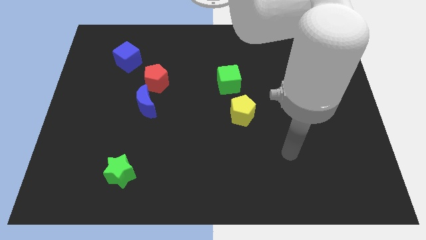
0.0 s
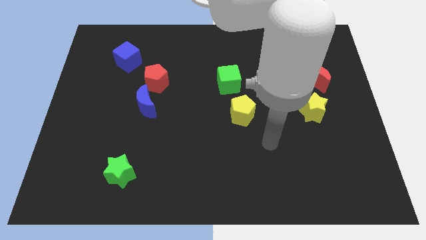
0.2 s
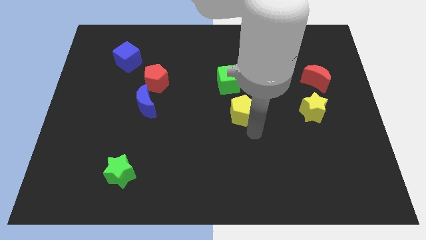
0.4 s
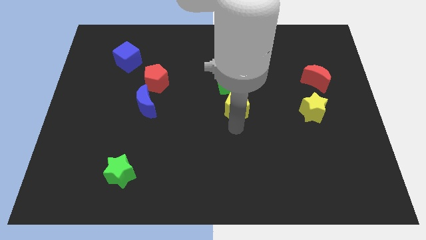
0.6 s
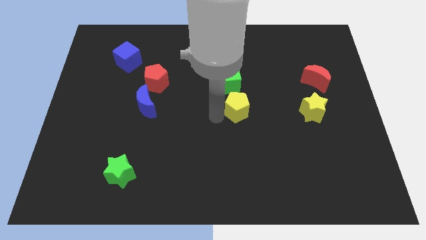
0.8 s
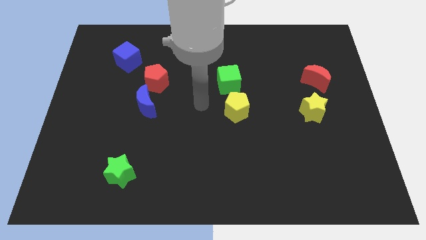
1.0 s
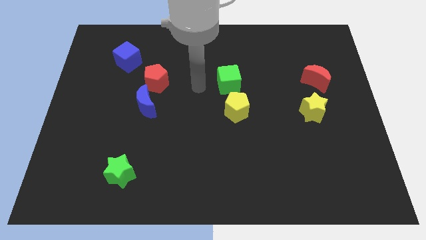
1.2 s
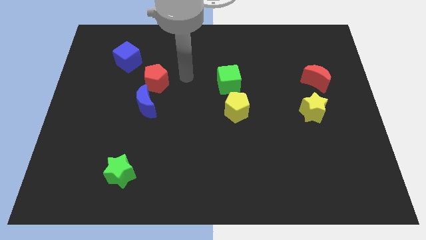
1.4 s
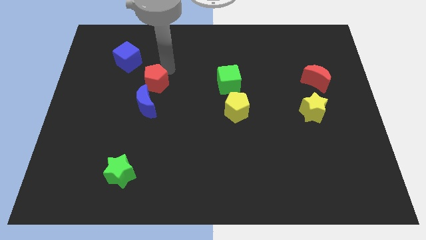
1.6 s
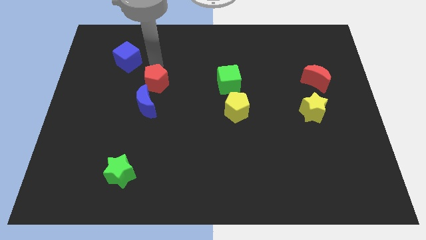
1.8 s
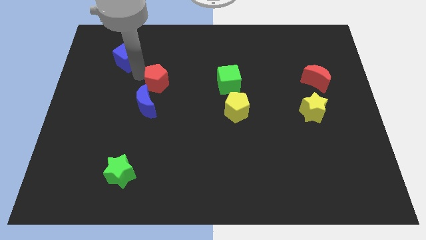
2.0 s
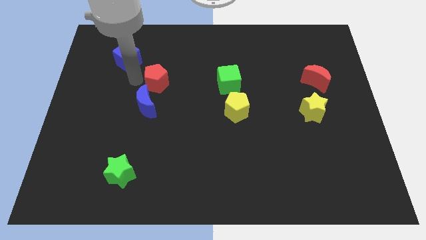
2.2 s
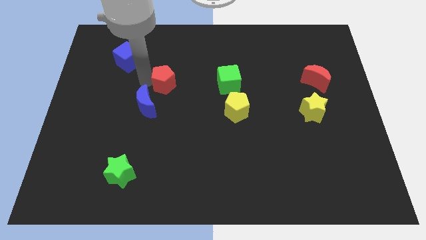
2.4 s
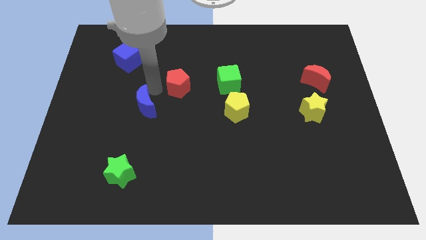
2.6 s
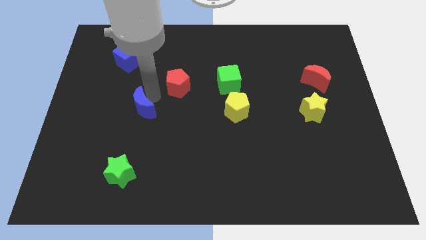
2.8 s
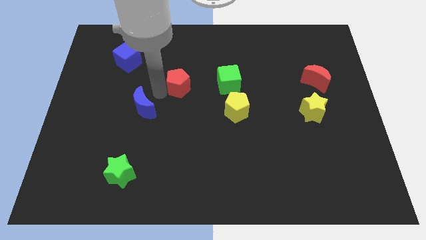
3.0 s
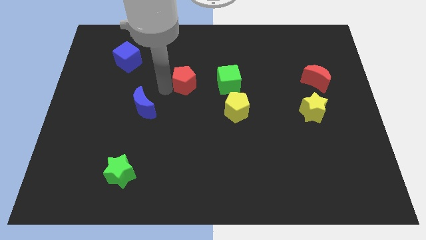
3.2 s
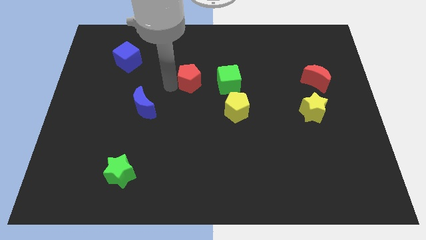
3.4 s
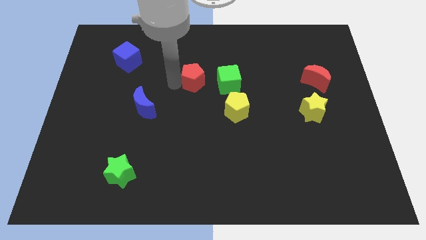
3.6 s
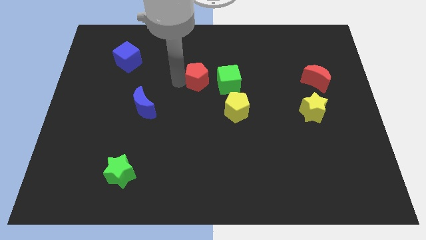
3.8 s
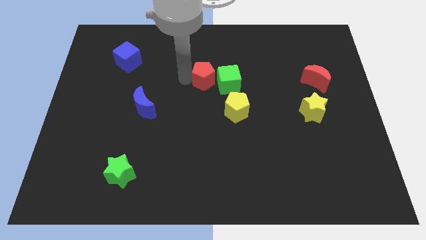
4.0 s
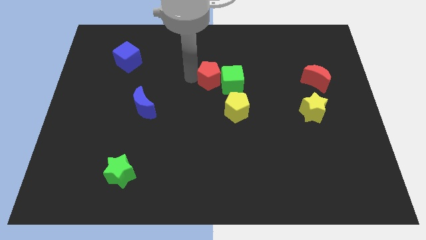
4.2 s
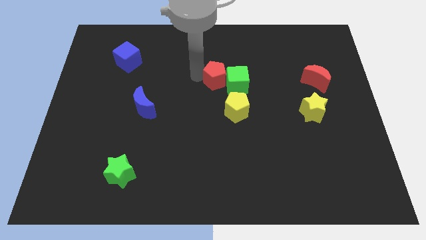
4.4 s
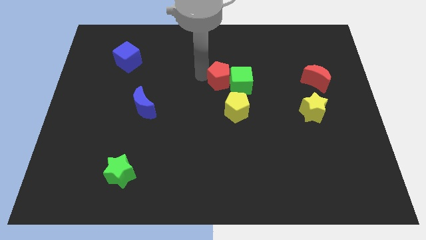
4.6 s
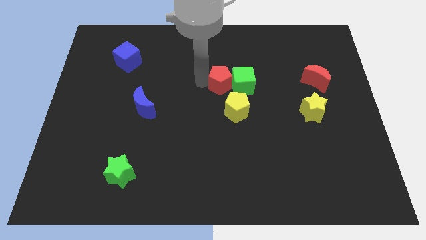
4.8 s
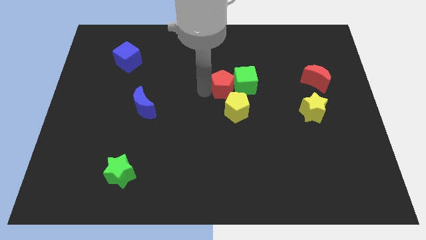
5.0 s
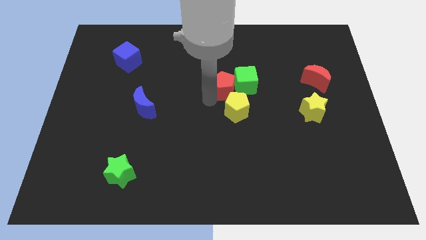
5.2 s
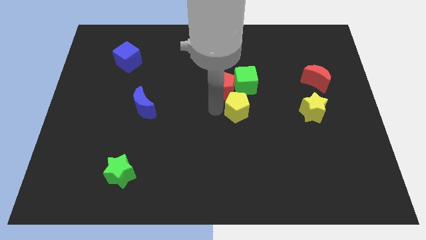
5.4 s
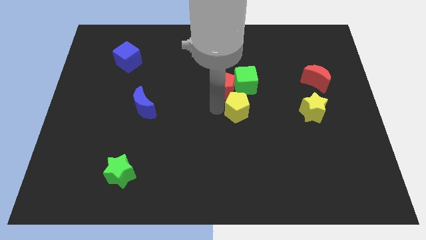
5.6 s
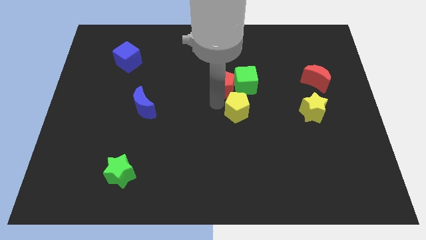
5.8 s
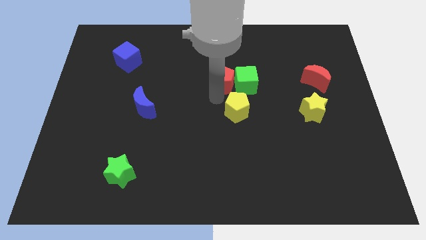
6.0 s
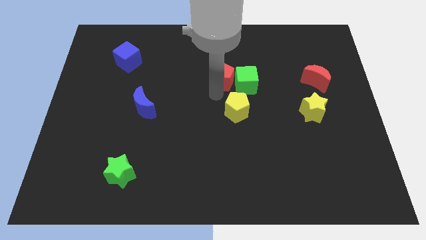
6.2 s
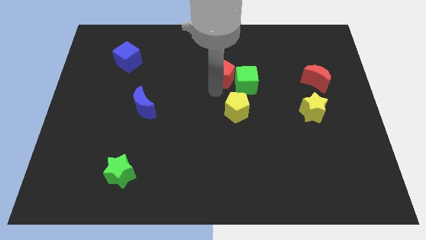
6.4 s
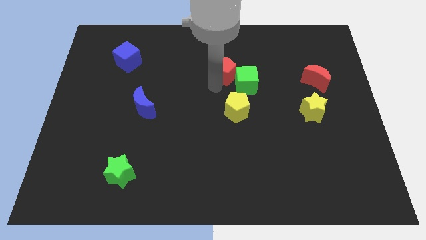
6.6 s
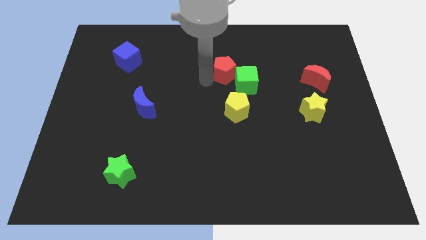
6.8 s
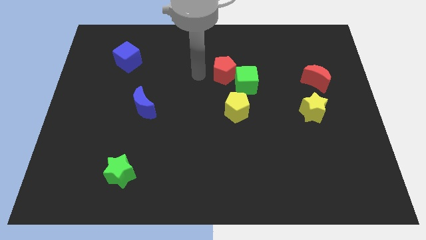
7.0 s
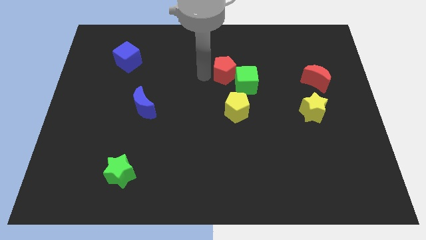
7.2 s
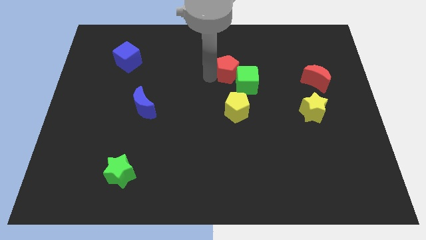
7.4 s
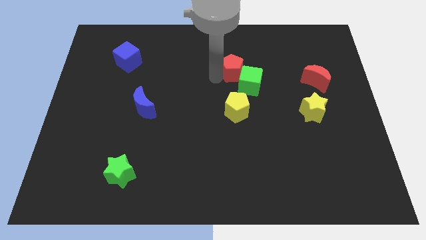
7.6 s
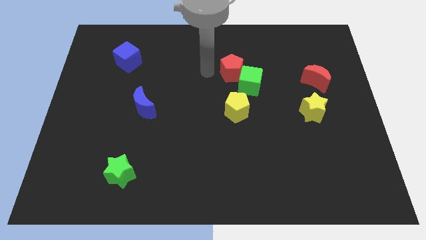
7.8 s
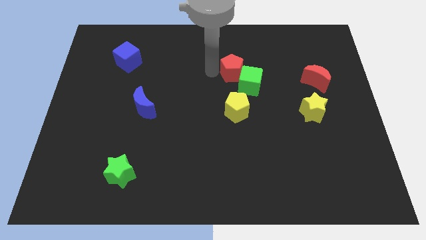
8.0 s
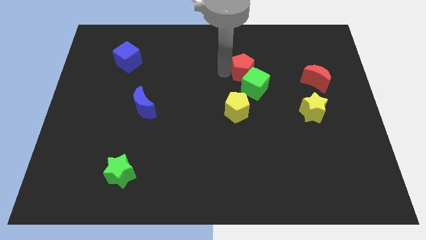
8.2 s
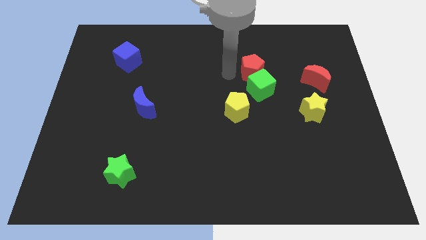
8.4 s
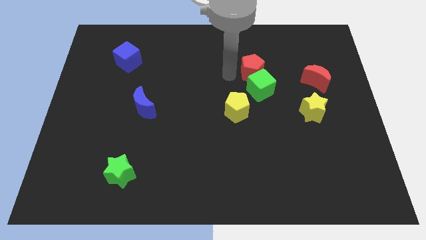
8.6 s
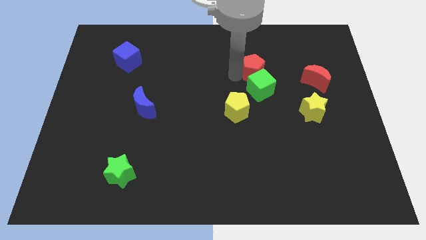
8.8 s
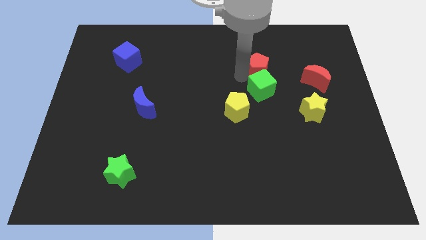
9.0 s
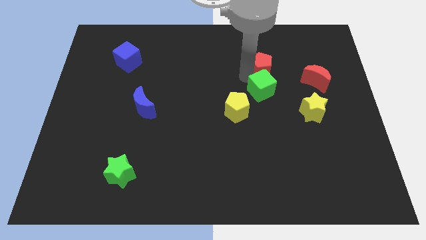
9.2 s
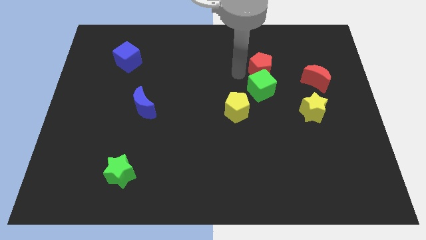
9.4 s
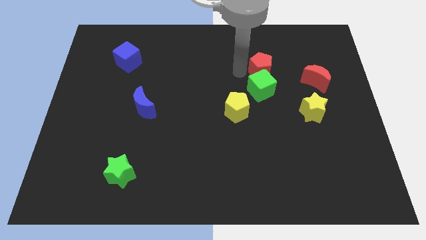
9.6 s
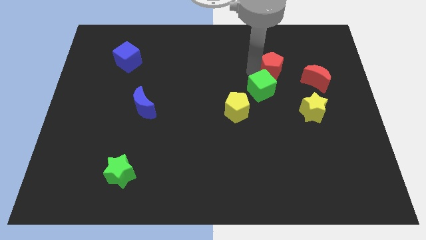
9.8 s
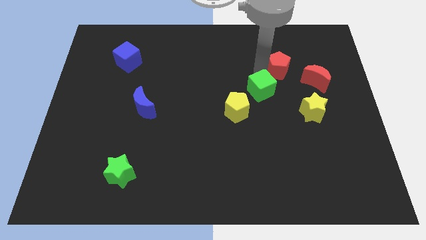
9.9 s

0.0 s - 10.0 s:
push the red pentagon to the top left side of the red moon

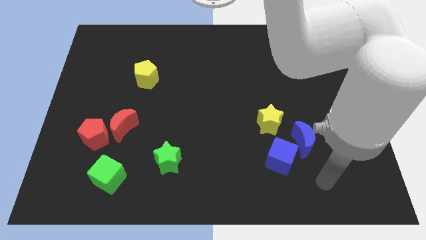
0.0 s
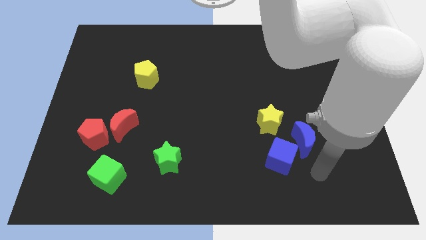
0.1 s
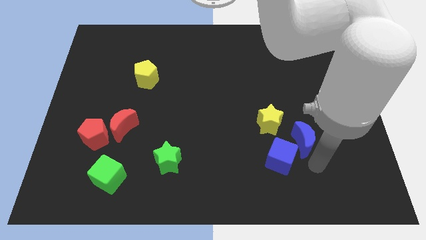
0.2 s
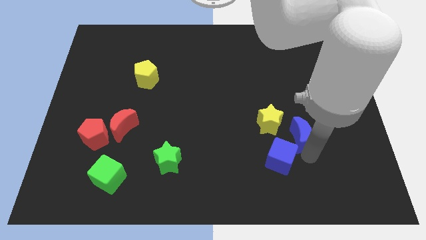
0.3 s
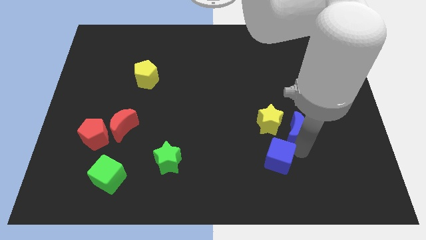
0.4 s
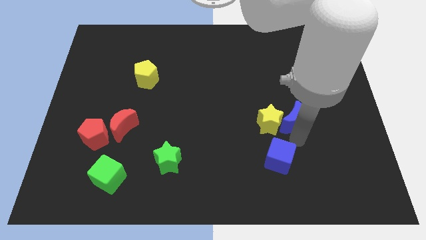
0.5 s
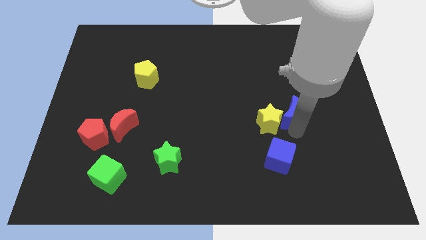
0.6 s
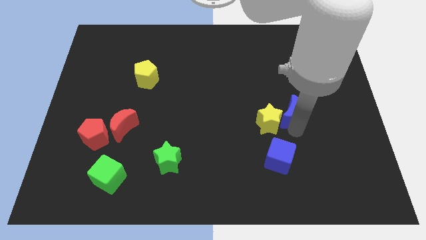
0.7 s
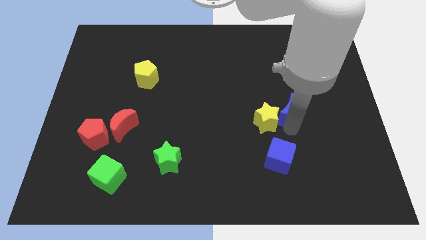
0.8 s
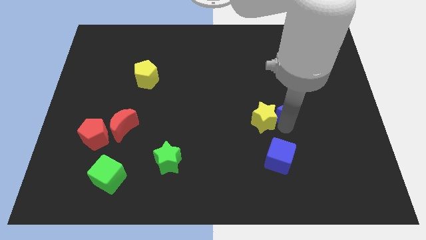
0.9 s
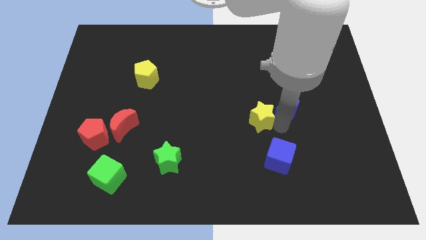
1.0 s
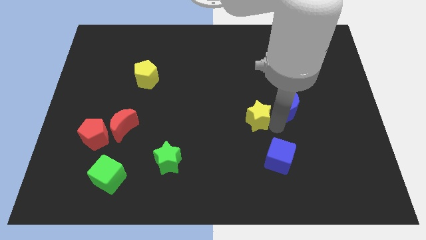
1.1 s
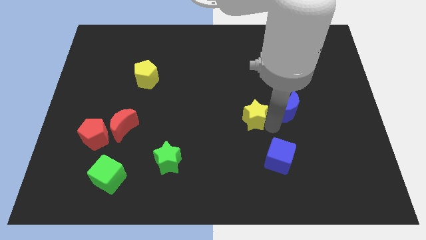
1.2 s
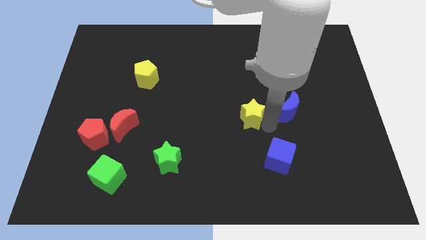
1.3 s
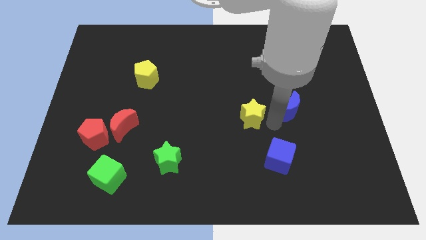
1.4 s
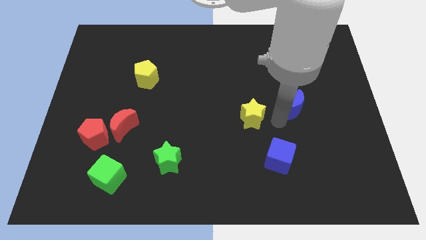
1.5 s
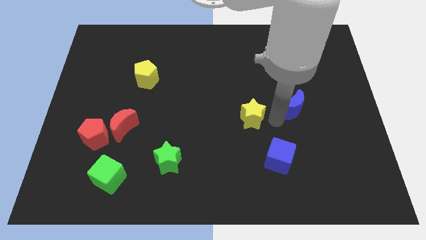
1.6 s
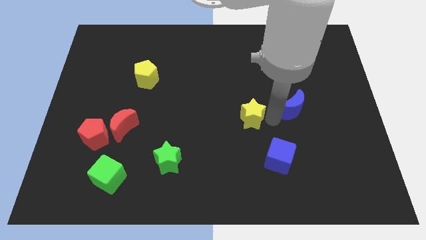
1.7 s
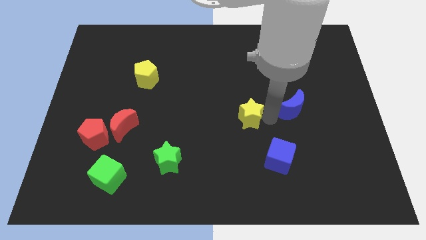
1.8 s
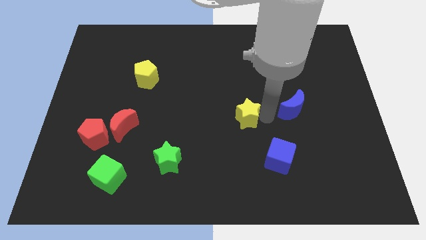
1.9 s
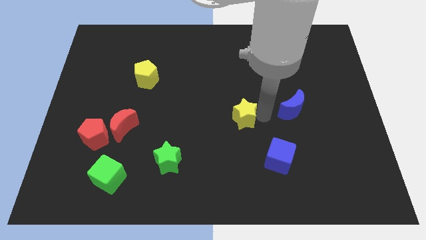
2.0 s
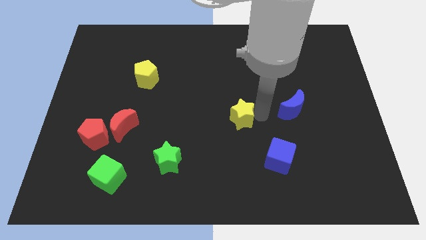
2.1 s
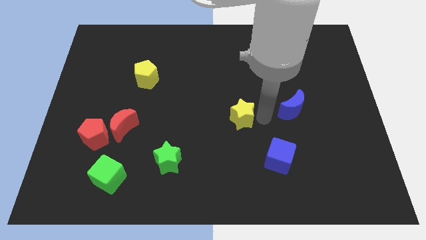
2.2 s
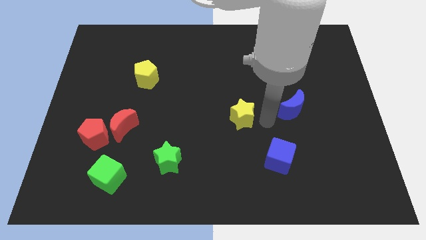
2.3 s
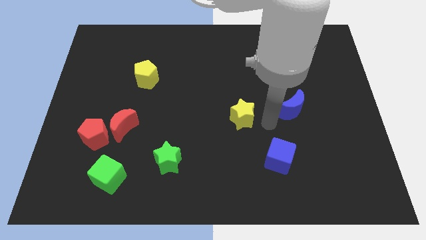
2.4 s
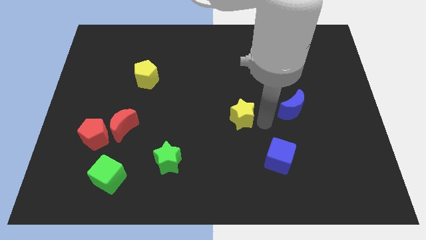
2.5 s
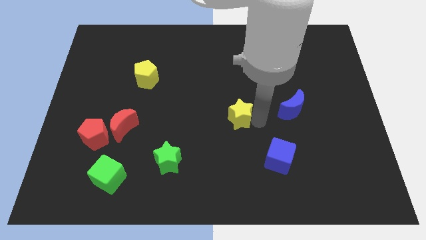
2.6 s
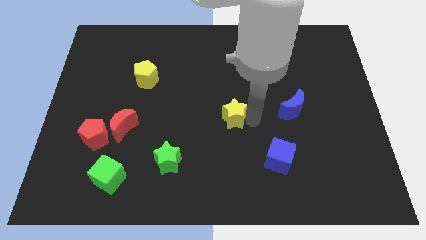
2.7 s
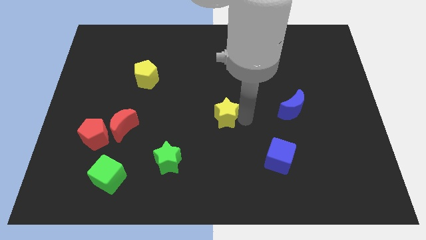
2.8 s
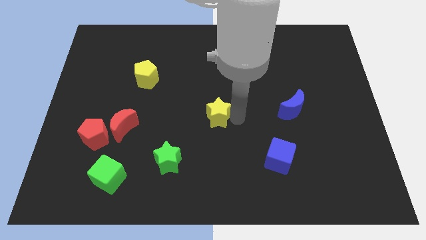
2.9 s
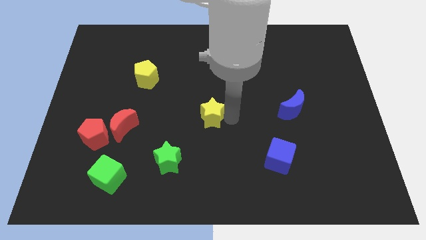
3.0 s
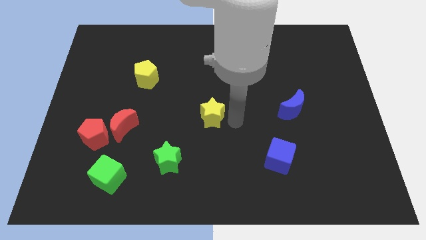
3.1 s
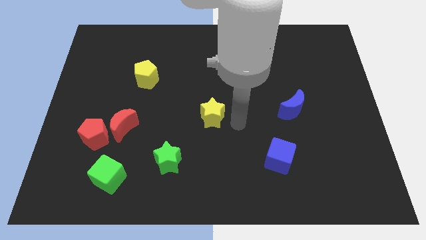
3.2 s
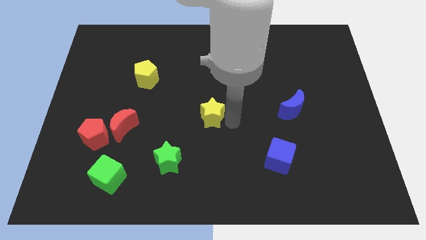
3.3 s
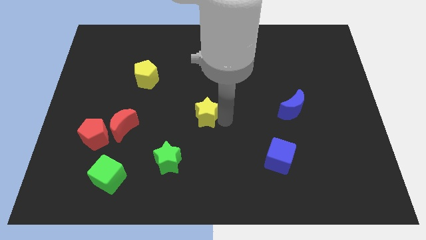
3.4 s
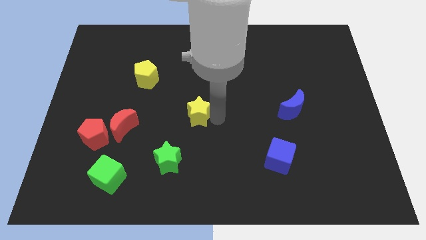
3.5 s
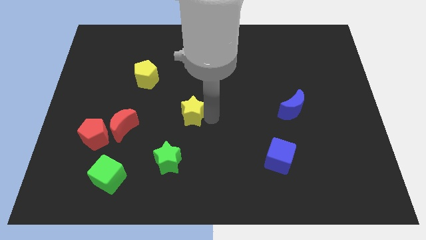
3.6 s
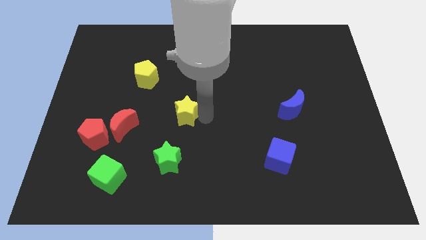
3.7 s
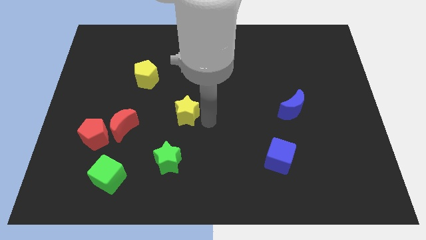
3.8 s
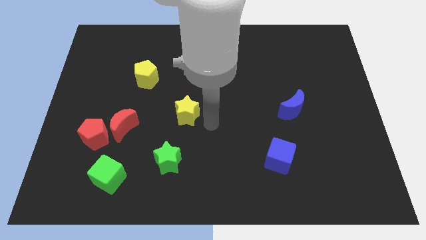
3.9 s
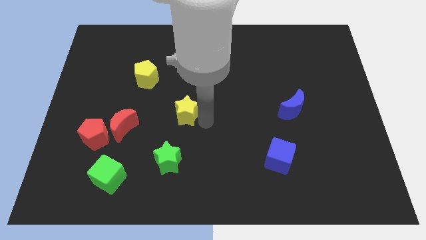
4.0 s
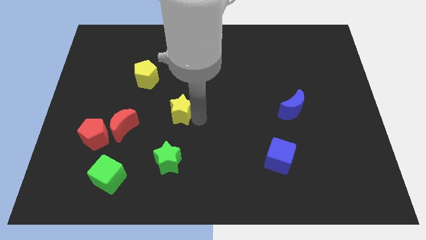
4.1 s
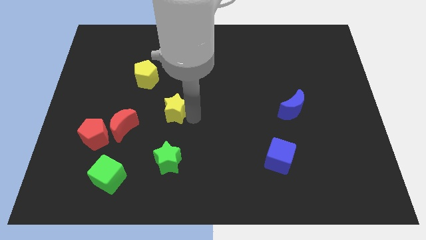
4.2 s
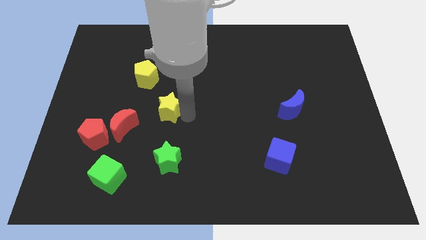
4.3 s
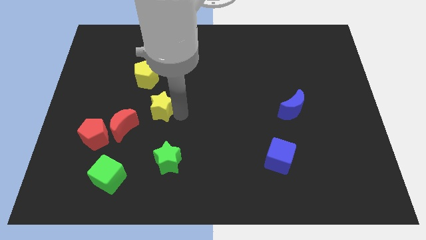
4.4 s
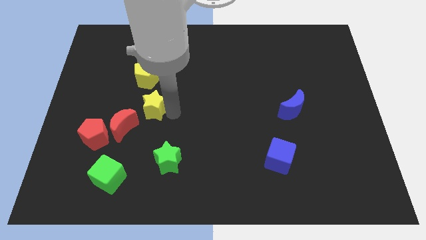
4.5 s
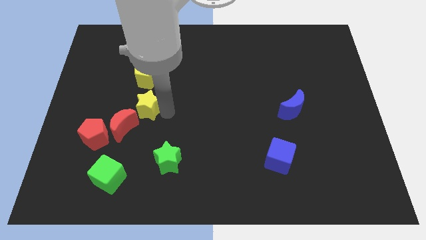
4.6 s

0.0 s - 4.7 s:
slide the yellow star above the red moon
